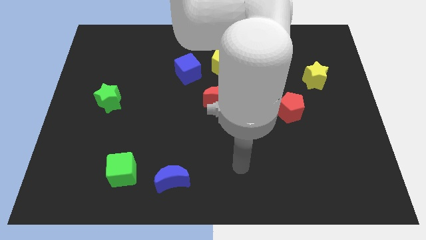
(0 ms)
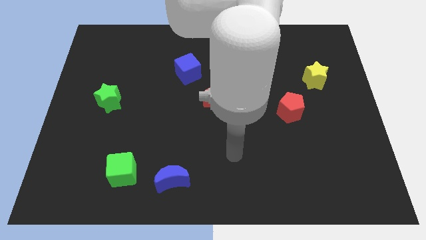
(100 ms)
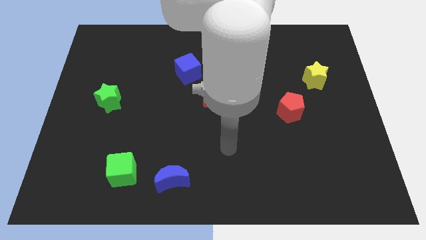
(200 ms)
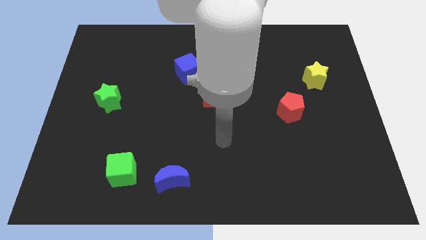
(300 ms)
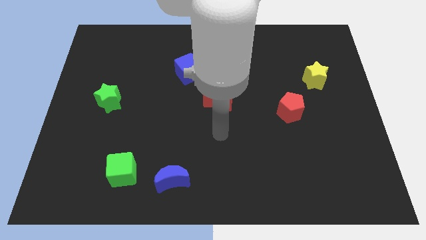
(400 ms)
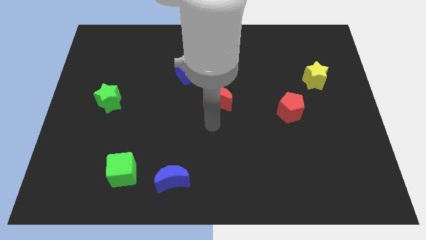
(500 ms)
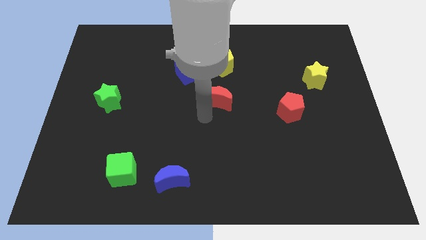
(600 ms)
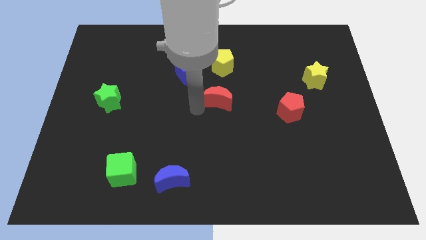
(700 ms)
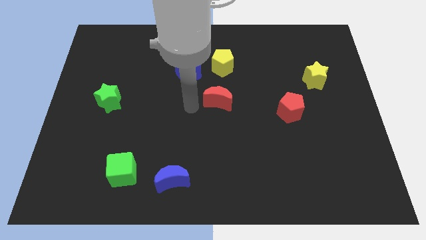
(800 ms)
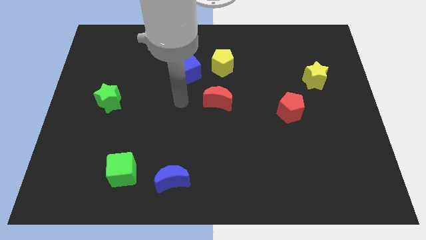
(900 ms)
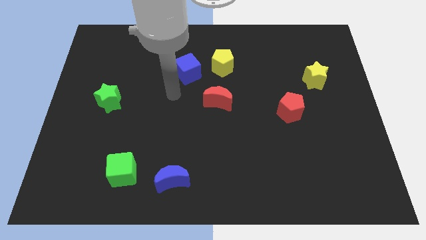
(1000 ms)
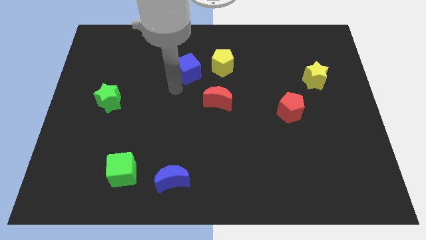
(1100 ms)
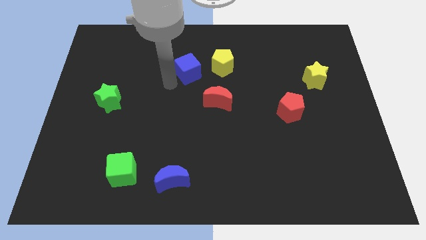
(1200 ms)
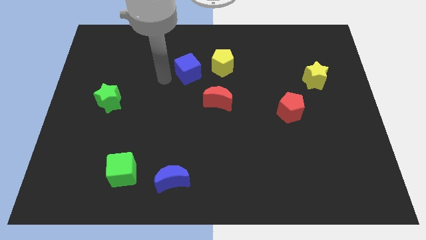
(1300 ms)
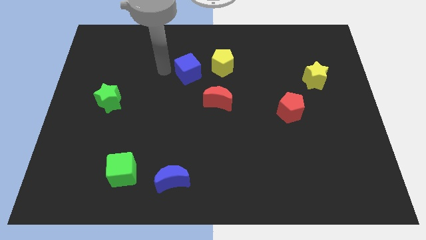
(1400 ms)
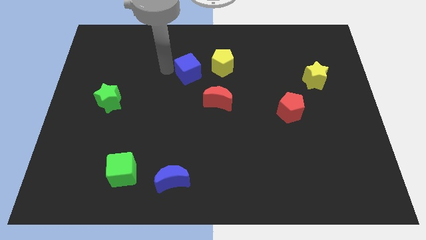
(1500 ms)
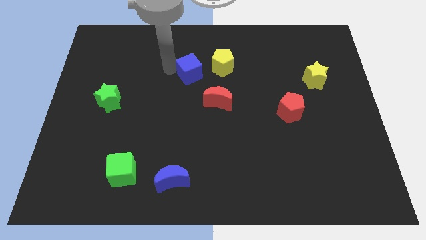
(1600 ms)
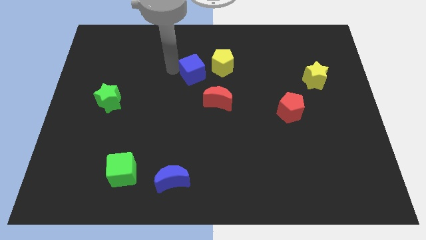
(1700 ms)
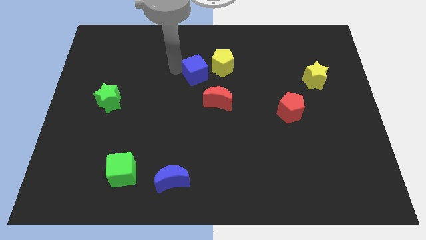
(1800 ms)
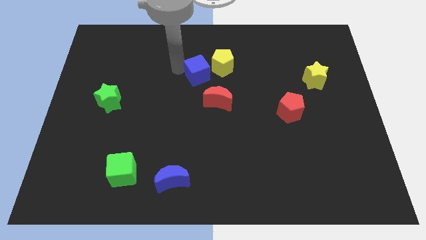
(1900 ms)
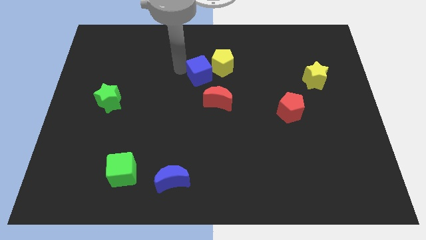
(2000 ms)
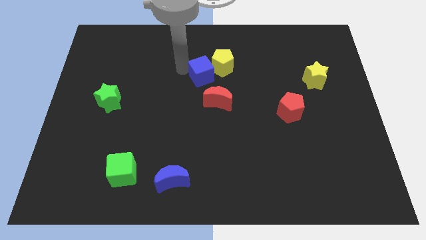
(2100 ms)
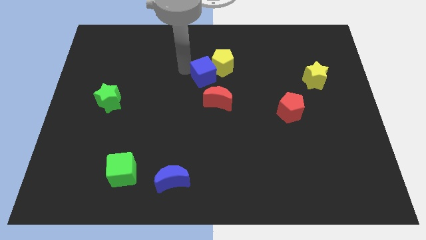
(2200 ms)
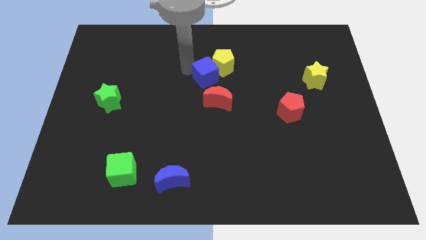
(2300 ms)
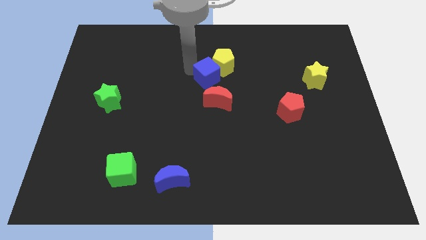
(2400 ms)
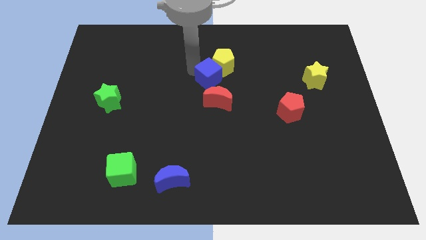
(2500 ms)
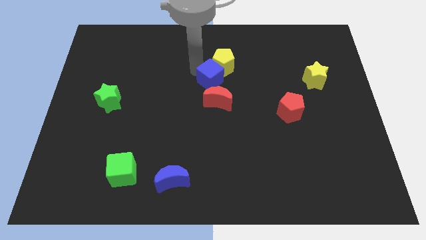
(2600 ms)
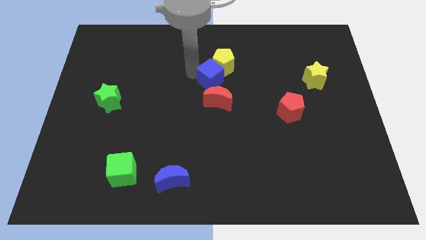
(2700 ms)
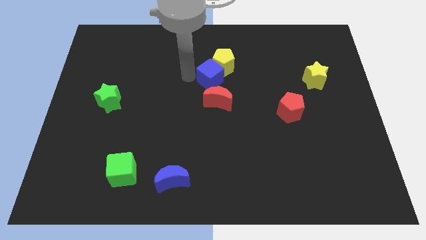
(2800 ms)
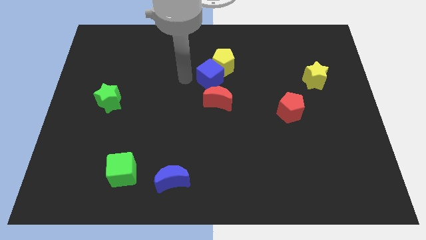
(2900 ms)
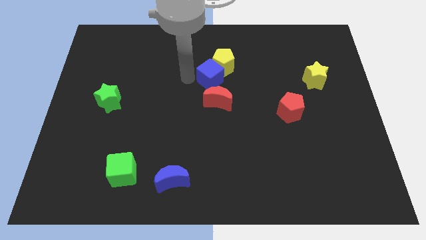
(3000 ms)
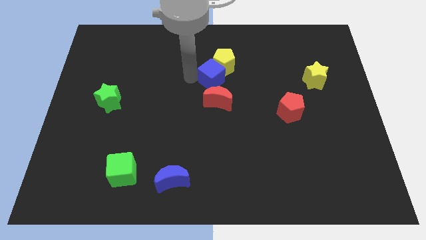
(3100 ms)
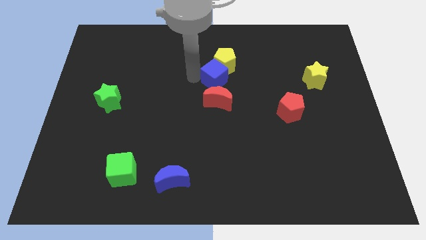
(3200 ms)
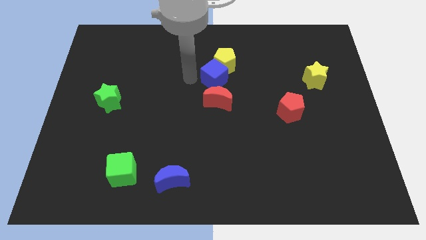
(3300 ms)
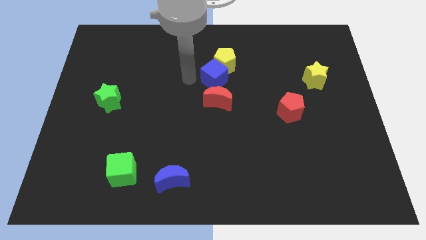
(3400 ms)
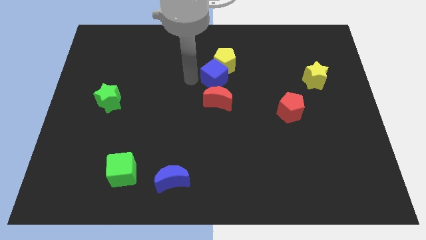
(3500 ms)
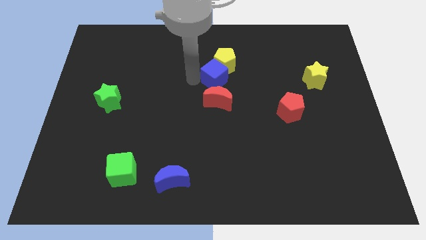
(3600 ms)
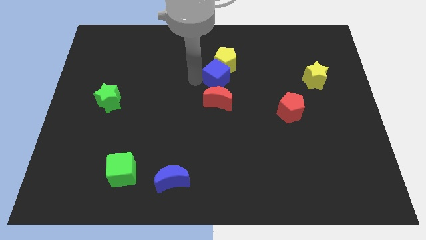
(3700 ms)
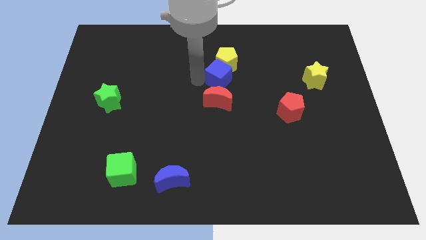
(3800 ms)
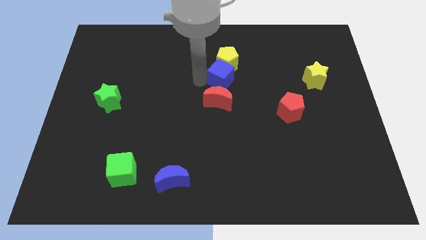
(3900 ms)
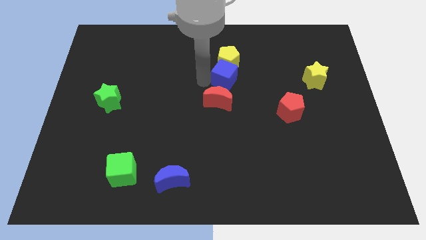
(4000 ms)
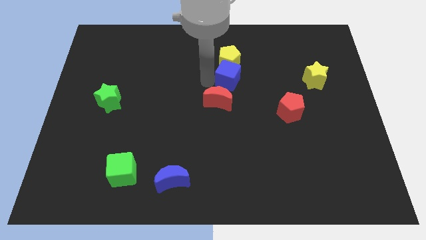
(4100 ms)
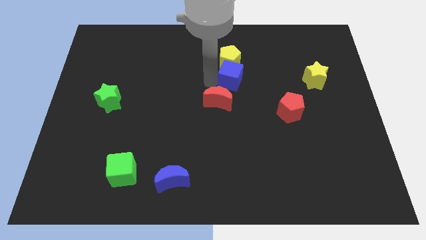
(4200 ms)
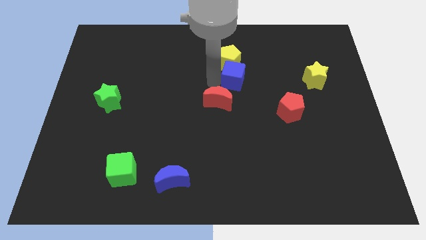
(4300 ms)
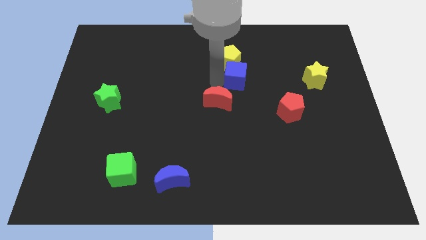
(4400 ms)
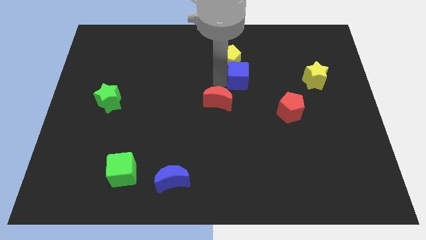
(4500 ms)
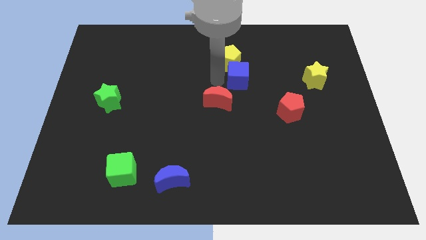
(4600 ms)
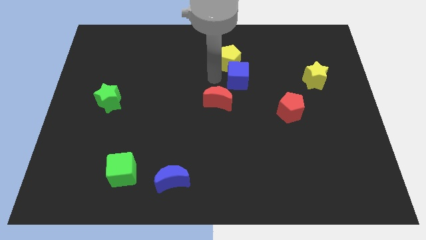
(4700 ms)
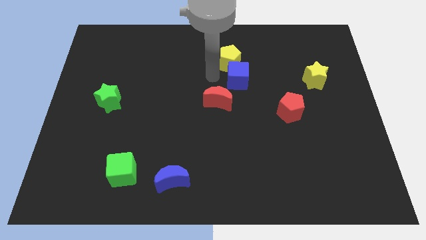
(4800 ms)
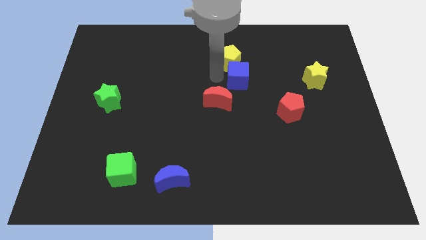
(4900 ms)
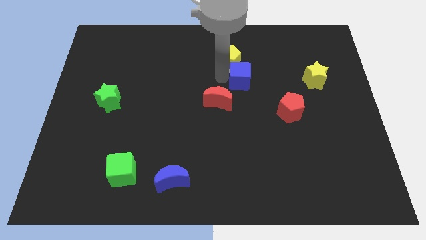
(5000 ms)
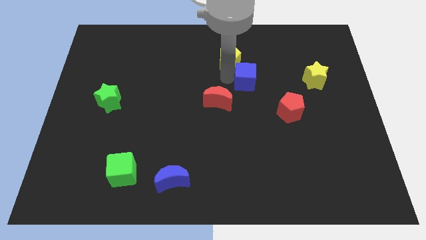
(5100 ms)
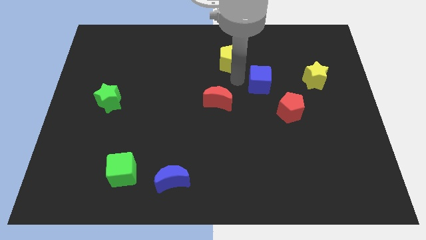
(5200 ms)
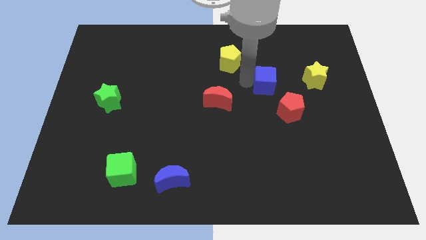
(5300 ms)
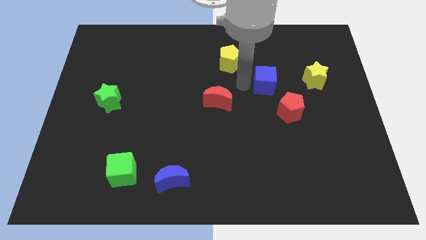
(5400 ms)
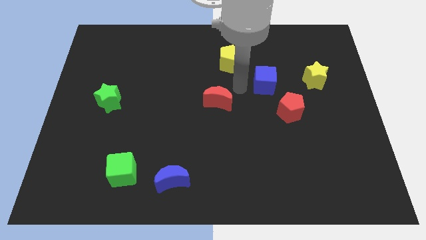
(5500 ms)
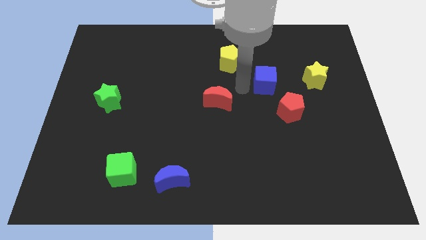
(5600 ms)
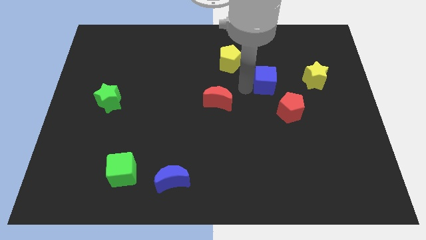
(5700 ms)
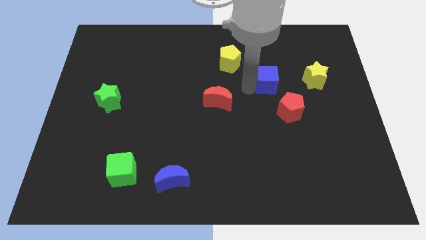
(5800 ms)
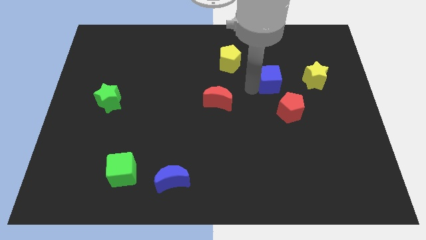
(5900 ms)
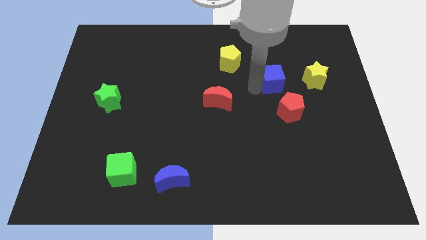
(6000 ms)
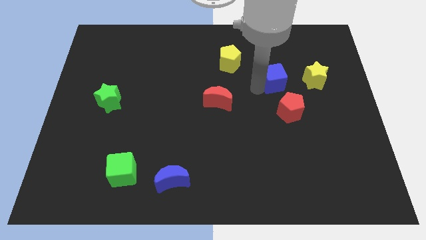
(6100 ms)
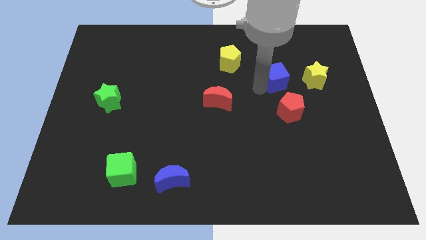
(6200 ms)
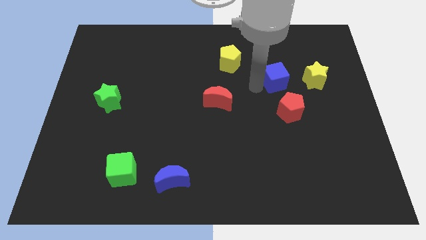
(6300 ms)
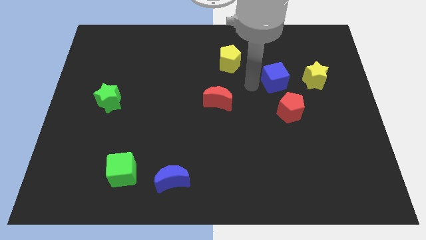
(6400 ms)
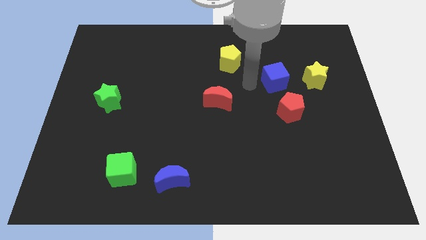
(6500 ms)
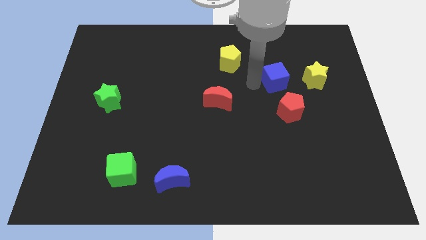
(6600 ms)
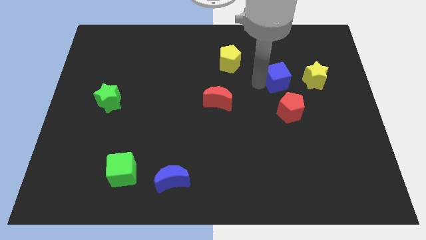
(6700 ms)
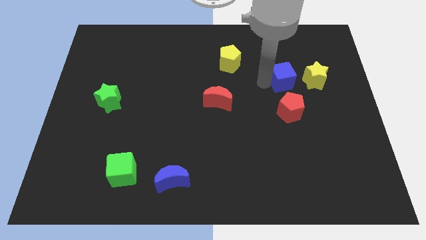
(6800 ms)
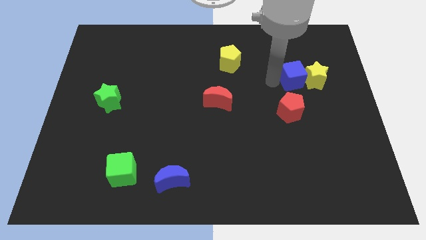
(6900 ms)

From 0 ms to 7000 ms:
slide the blue cube next to the yellow star

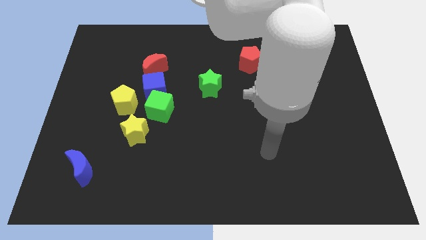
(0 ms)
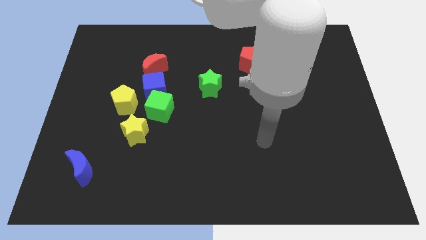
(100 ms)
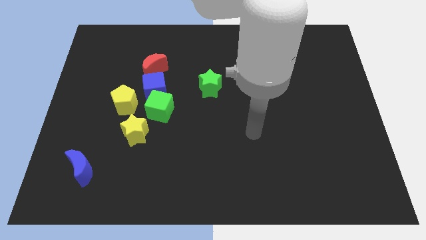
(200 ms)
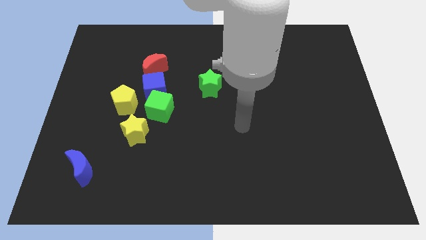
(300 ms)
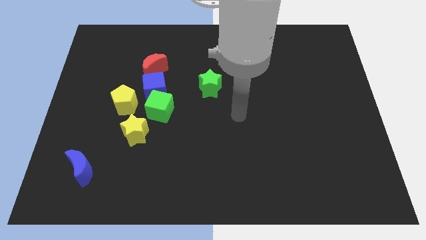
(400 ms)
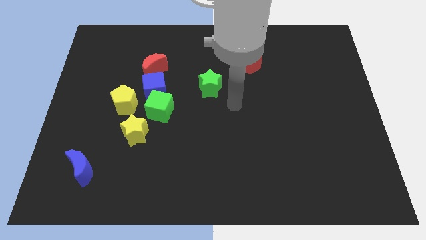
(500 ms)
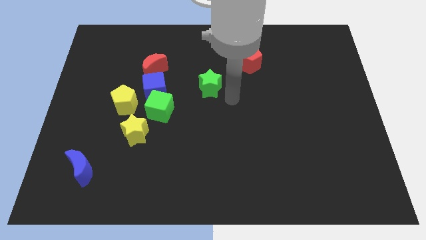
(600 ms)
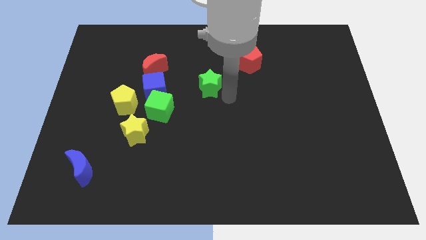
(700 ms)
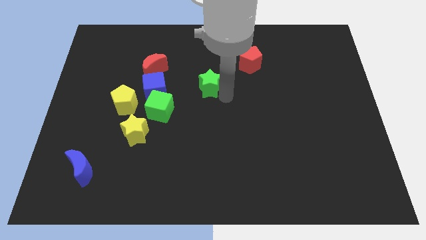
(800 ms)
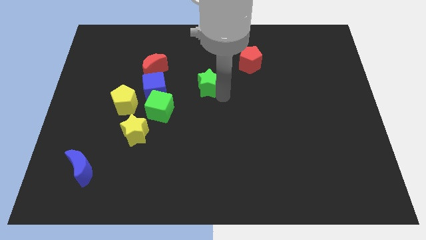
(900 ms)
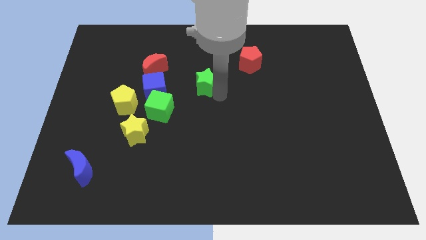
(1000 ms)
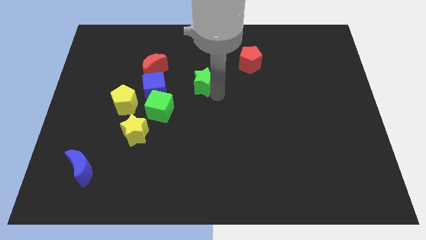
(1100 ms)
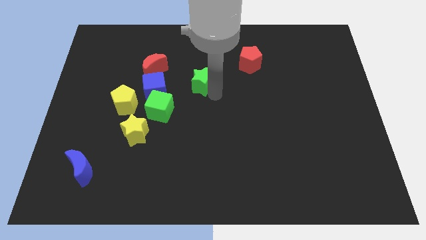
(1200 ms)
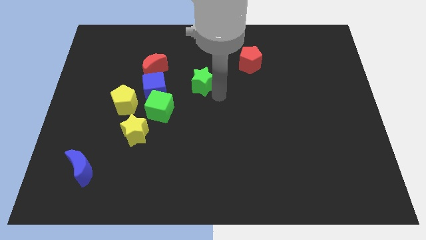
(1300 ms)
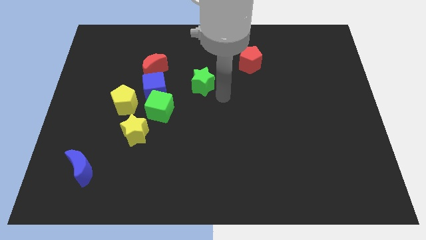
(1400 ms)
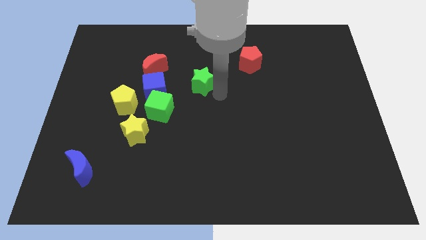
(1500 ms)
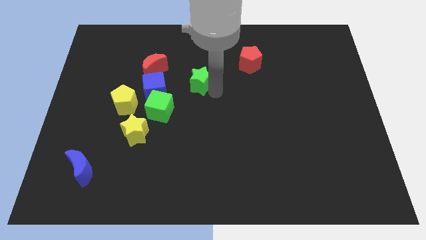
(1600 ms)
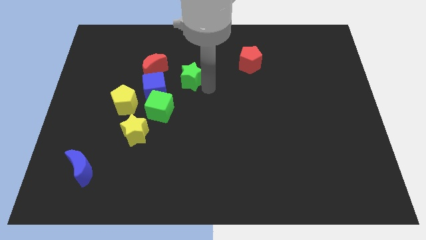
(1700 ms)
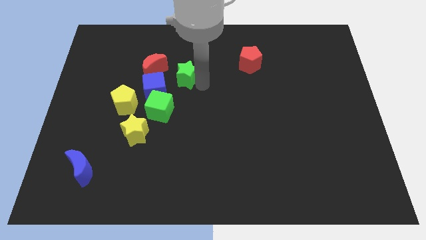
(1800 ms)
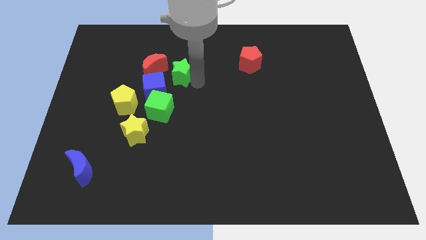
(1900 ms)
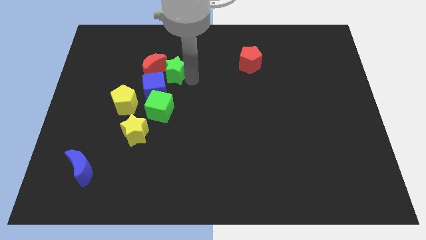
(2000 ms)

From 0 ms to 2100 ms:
push the green star next to the red moon
